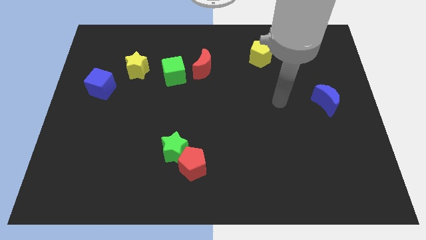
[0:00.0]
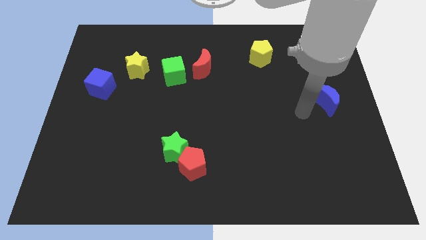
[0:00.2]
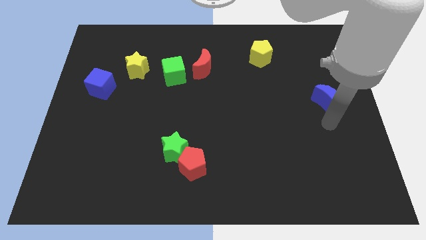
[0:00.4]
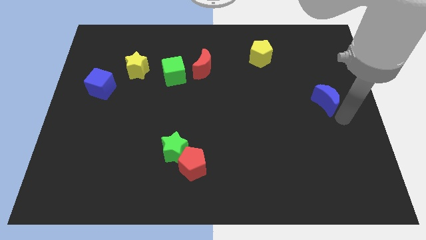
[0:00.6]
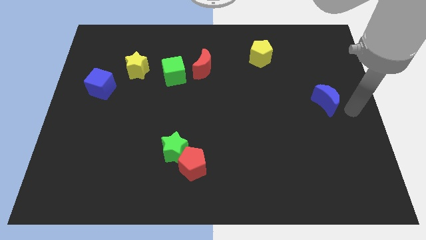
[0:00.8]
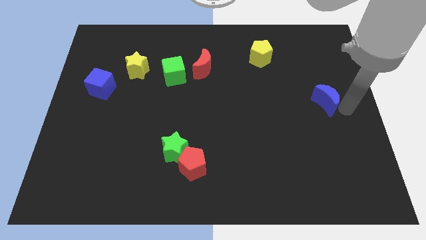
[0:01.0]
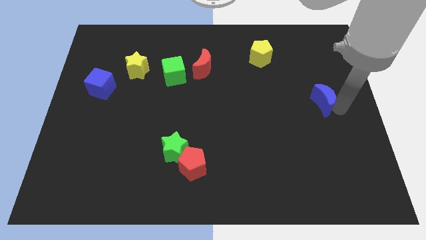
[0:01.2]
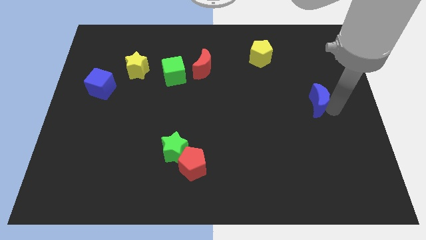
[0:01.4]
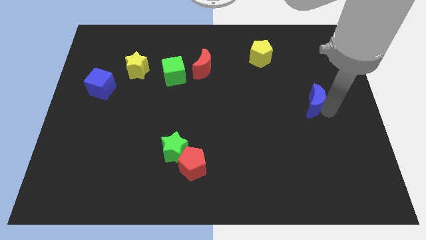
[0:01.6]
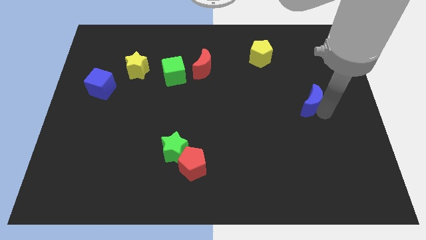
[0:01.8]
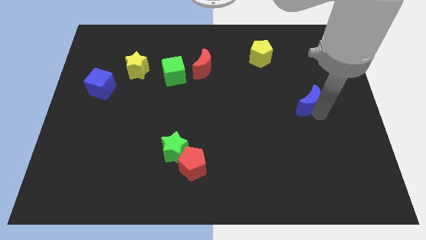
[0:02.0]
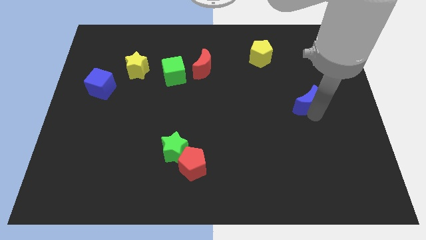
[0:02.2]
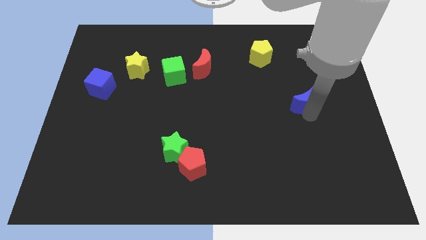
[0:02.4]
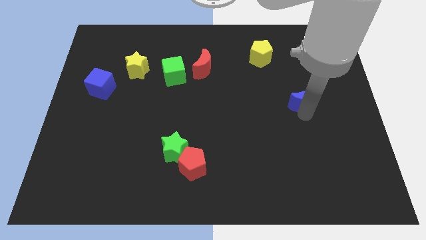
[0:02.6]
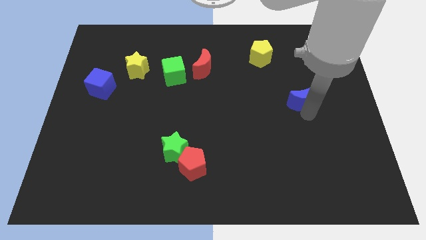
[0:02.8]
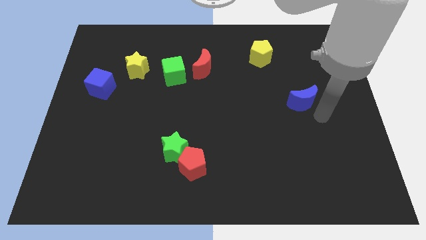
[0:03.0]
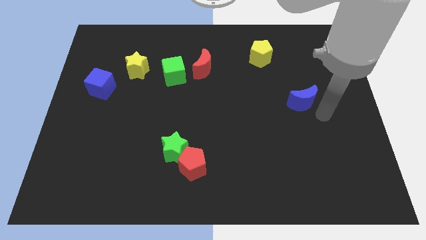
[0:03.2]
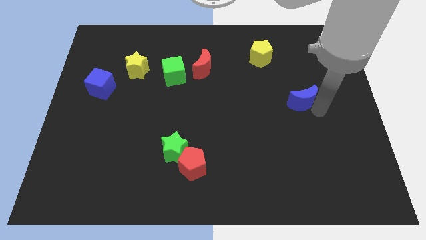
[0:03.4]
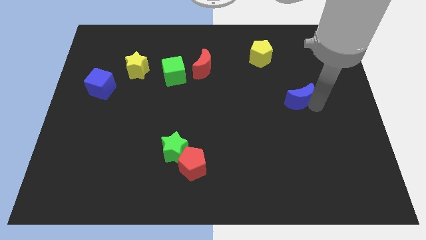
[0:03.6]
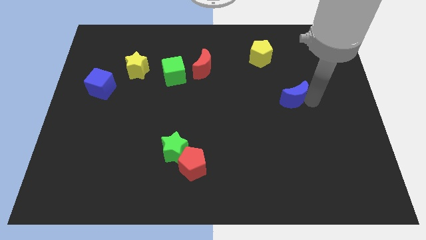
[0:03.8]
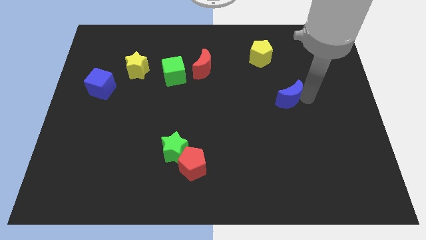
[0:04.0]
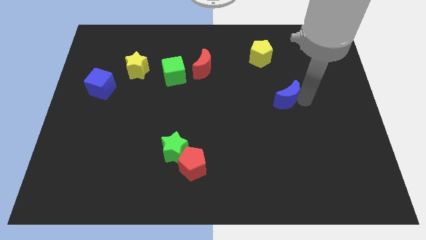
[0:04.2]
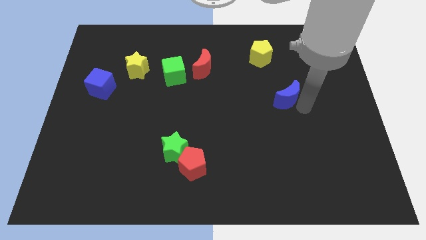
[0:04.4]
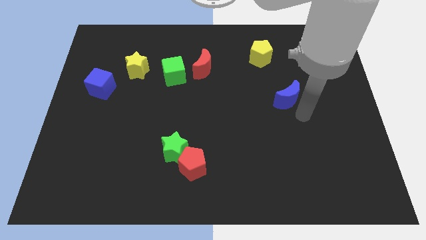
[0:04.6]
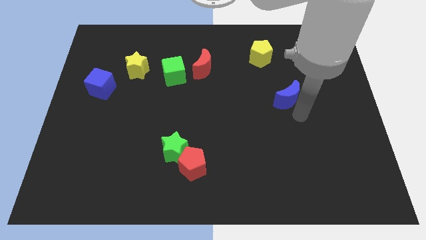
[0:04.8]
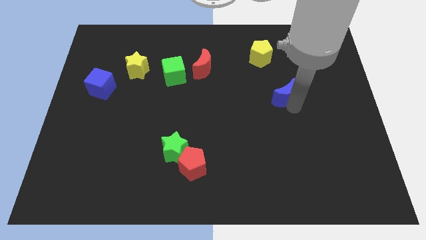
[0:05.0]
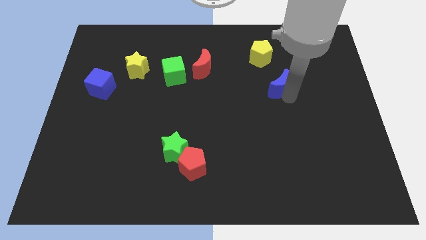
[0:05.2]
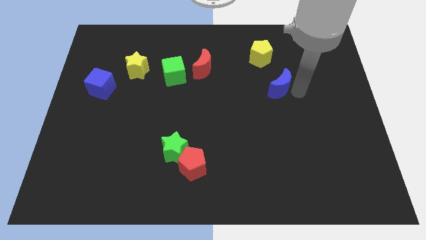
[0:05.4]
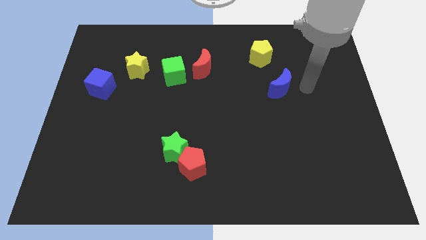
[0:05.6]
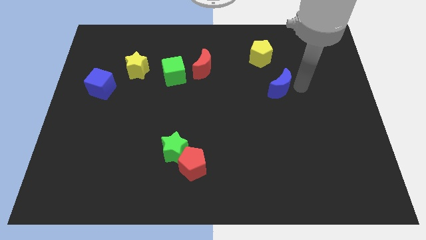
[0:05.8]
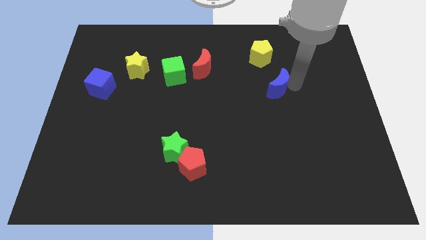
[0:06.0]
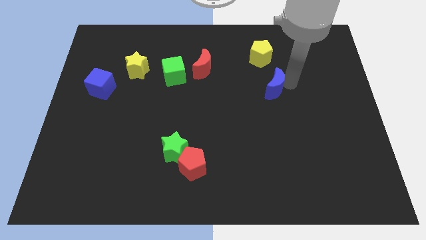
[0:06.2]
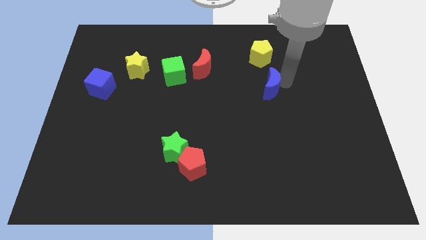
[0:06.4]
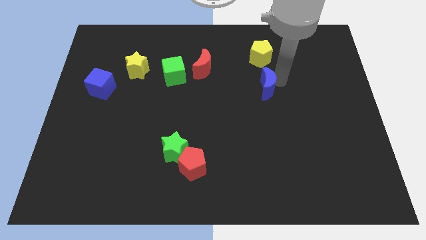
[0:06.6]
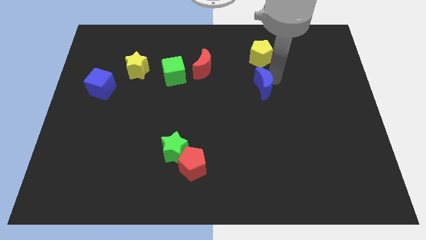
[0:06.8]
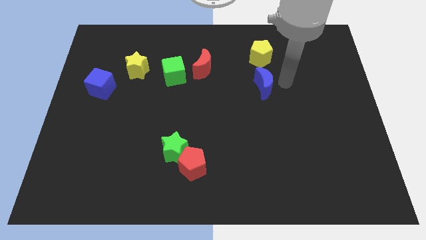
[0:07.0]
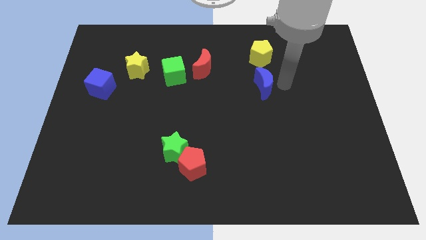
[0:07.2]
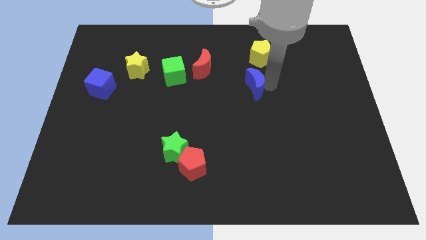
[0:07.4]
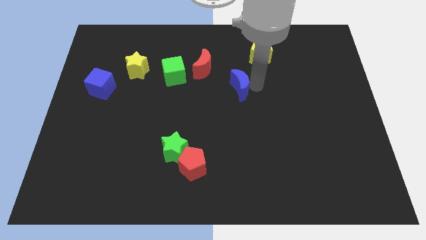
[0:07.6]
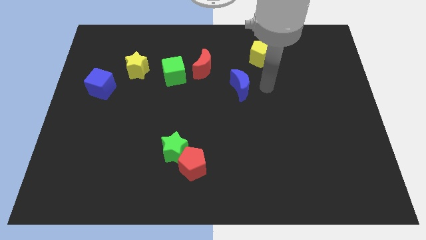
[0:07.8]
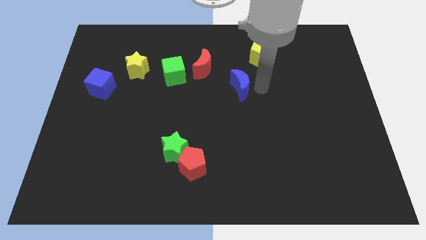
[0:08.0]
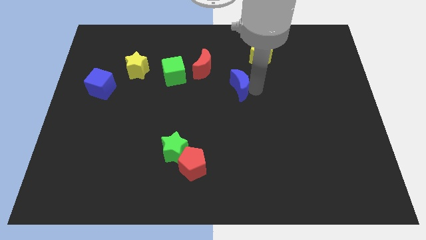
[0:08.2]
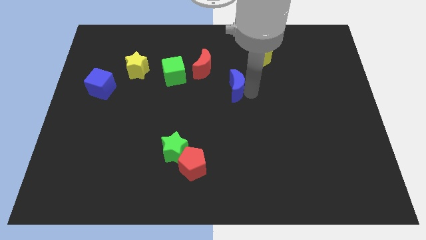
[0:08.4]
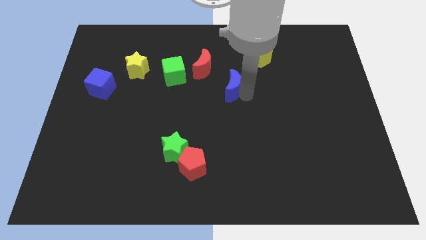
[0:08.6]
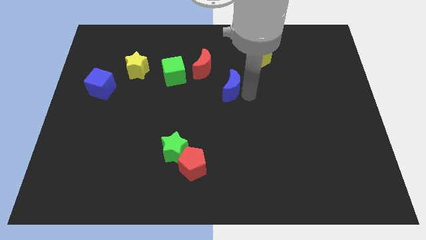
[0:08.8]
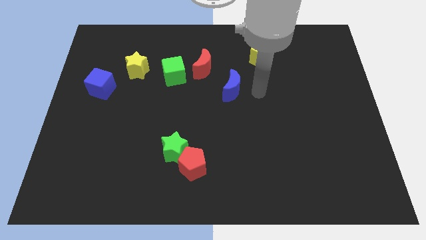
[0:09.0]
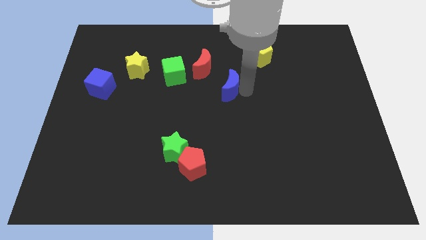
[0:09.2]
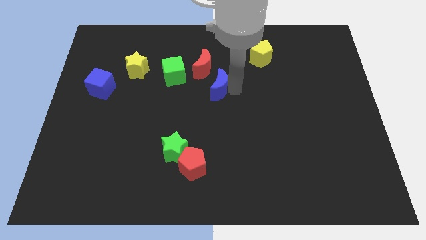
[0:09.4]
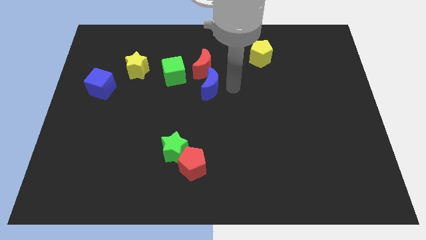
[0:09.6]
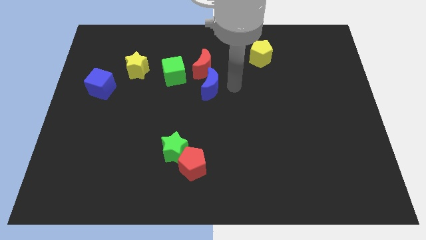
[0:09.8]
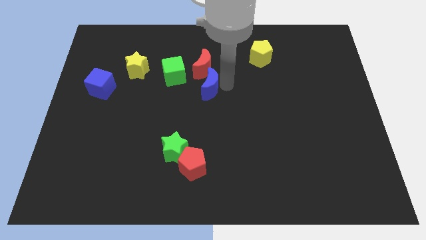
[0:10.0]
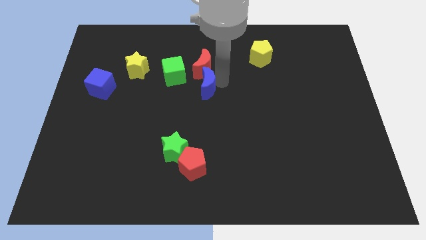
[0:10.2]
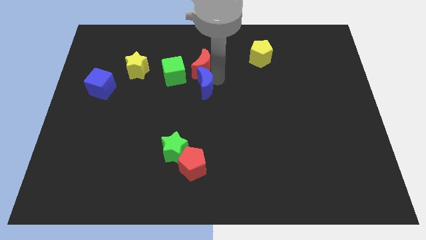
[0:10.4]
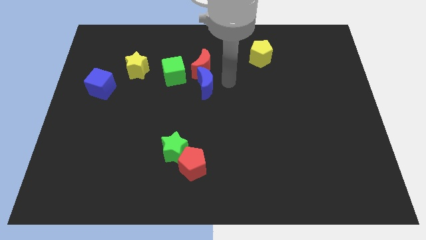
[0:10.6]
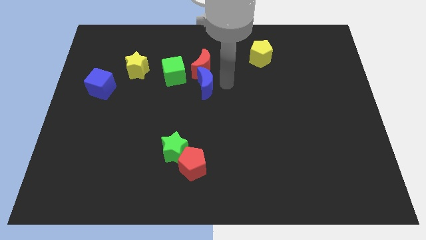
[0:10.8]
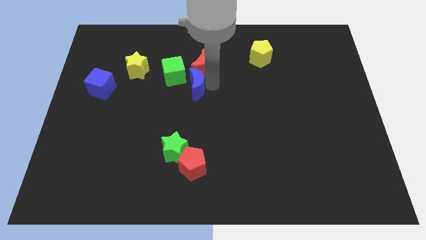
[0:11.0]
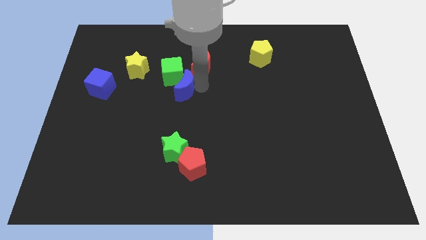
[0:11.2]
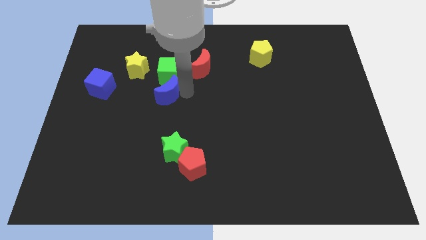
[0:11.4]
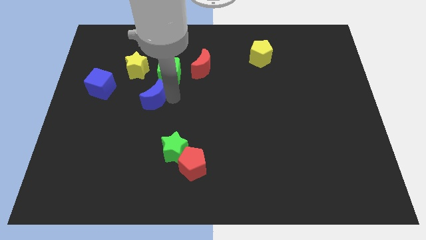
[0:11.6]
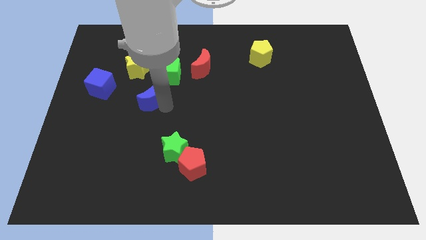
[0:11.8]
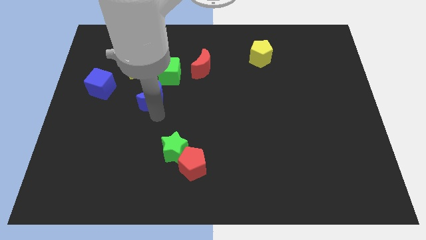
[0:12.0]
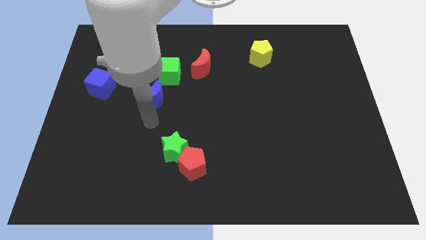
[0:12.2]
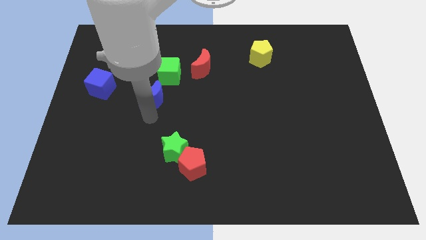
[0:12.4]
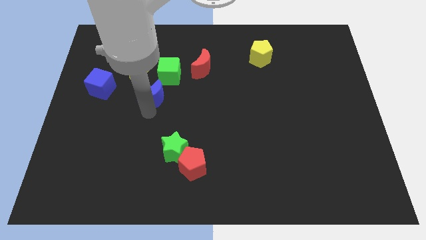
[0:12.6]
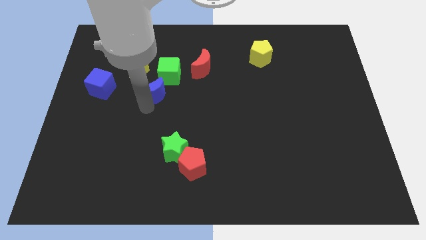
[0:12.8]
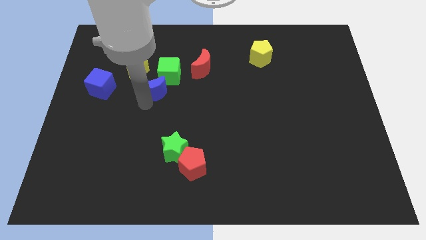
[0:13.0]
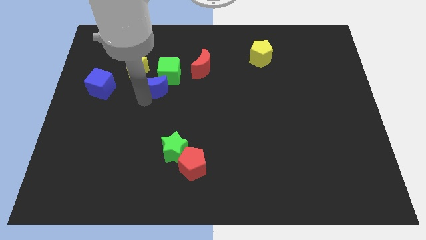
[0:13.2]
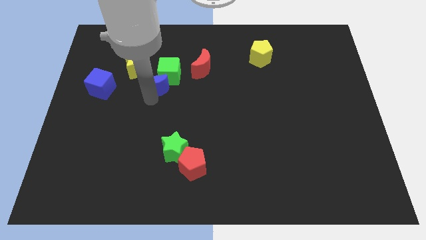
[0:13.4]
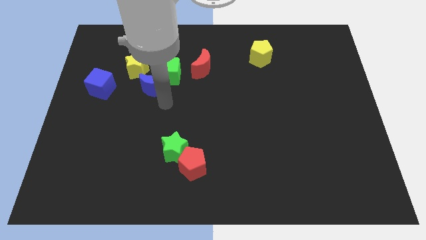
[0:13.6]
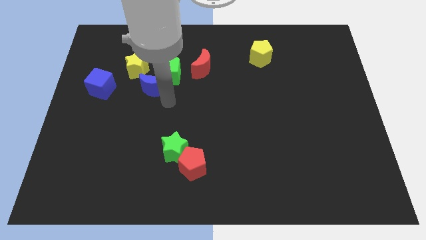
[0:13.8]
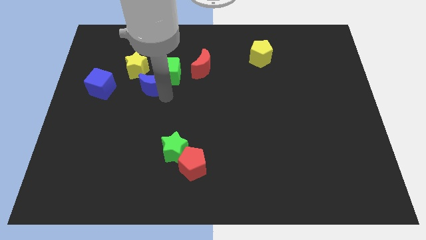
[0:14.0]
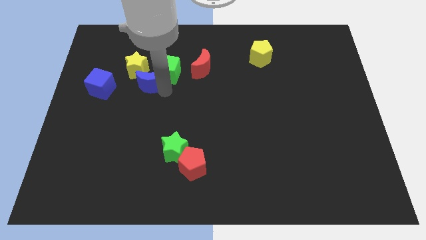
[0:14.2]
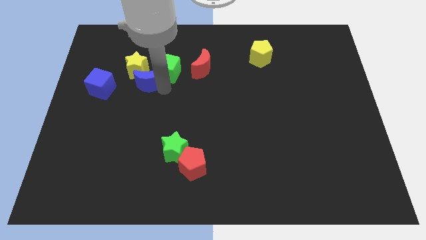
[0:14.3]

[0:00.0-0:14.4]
put the blue moon close to the yellow star
